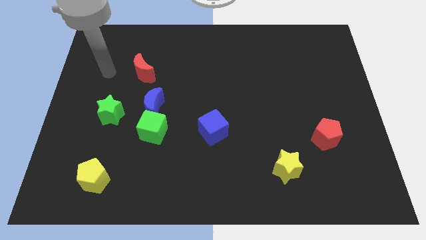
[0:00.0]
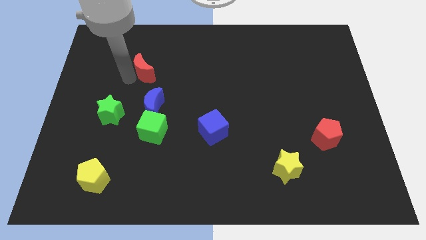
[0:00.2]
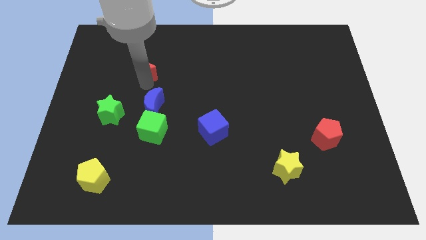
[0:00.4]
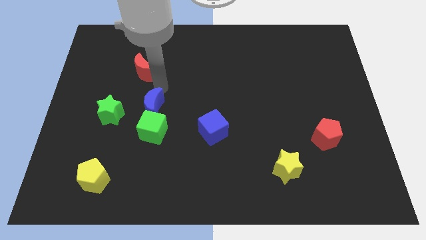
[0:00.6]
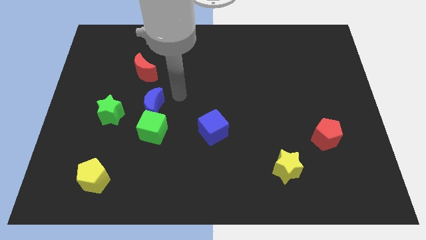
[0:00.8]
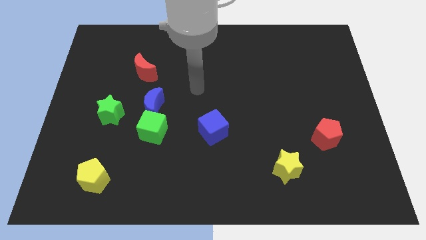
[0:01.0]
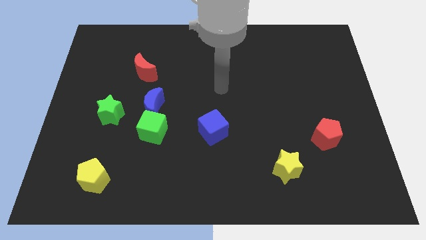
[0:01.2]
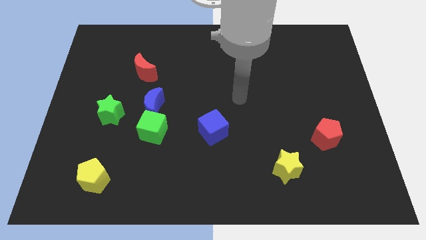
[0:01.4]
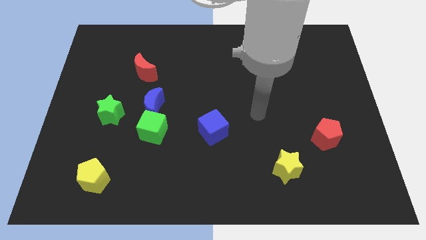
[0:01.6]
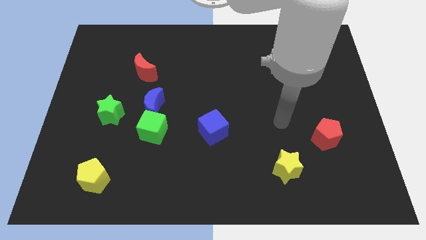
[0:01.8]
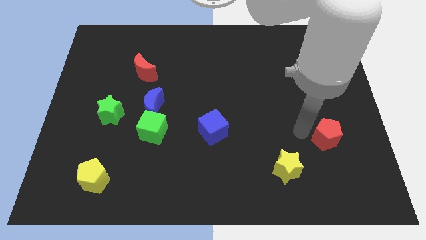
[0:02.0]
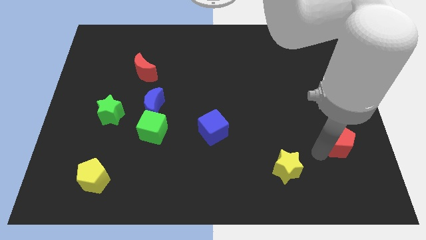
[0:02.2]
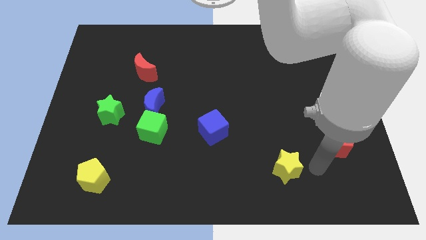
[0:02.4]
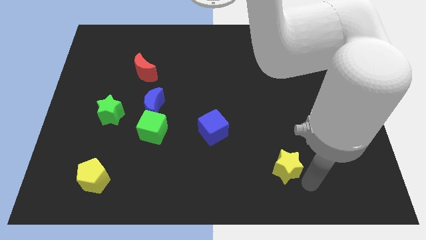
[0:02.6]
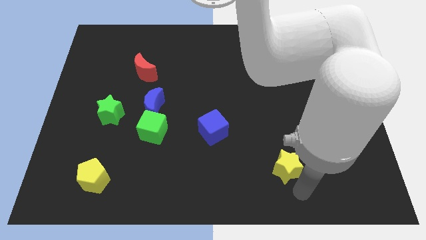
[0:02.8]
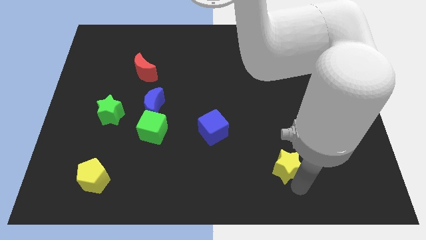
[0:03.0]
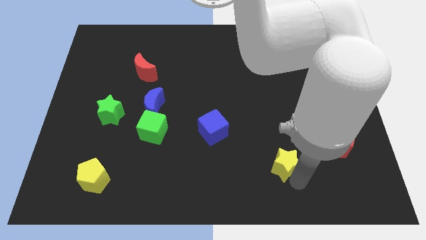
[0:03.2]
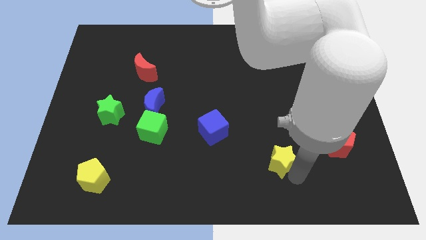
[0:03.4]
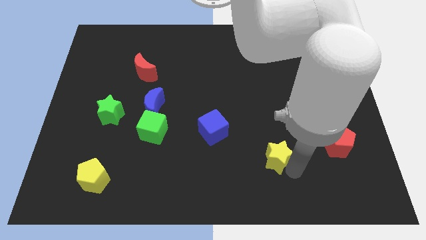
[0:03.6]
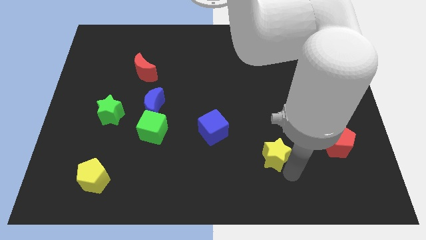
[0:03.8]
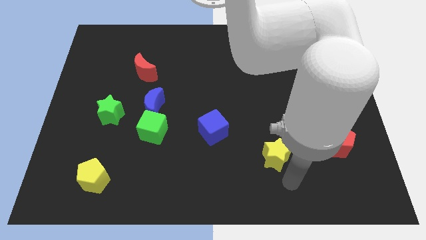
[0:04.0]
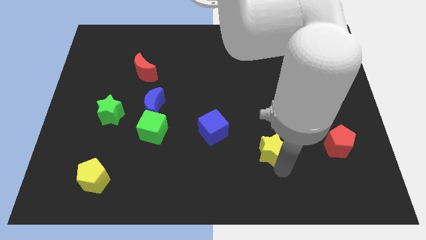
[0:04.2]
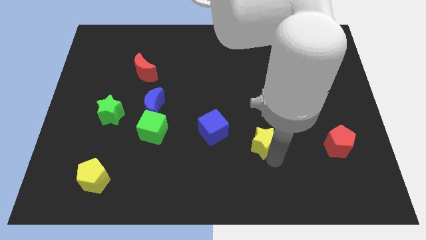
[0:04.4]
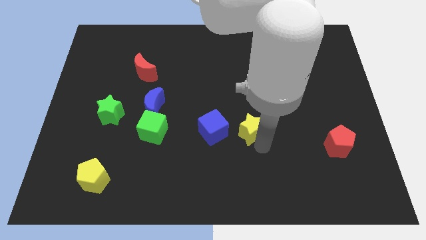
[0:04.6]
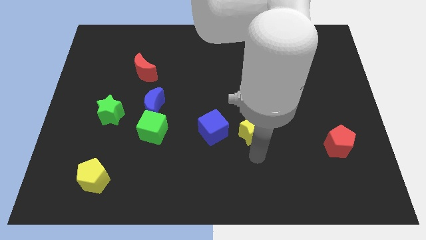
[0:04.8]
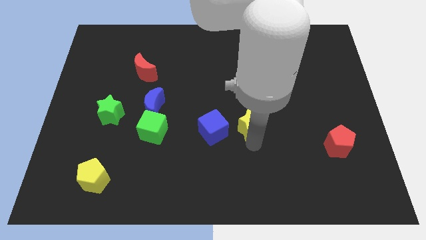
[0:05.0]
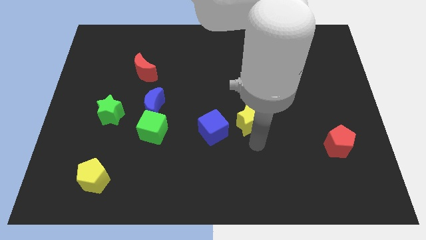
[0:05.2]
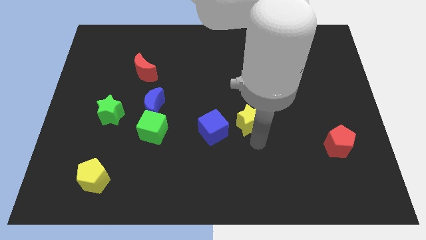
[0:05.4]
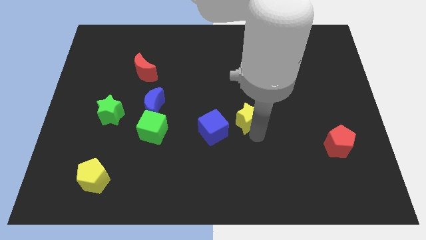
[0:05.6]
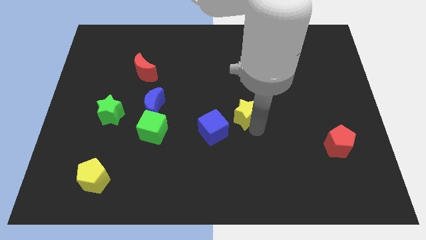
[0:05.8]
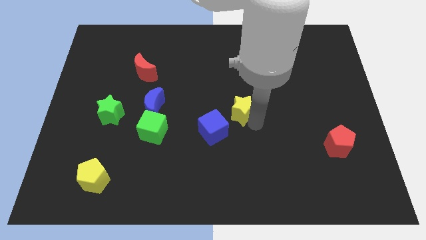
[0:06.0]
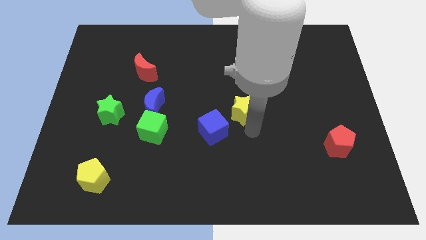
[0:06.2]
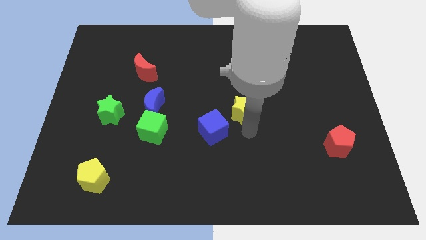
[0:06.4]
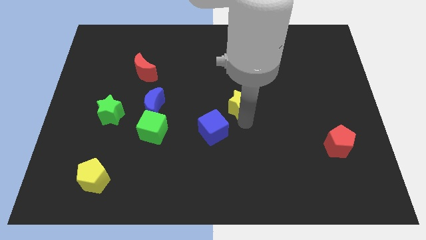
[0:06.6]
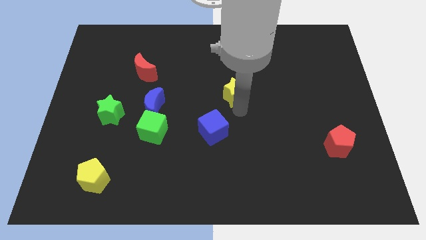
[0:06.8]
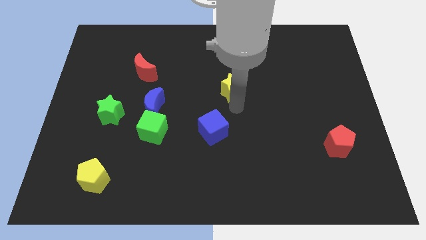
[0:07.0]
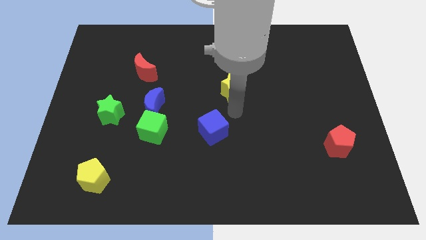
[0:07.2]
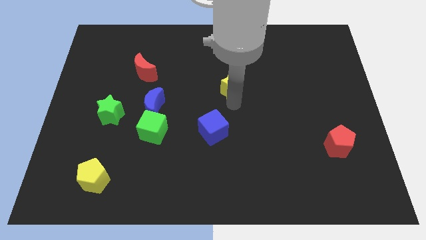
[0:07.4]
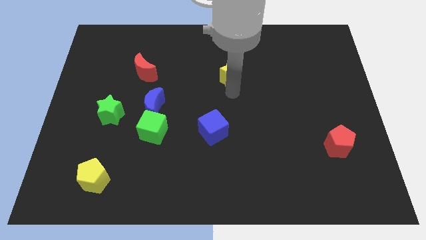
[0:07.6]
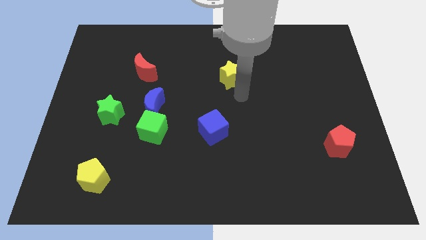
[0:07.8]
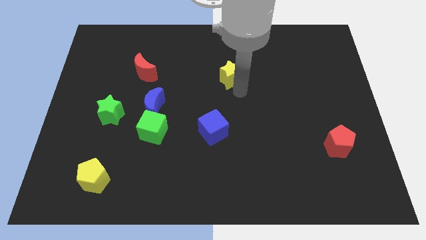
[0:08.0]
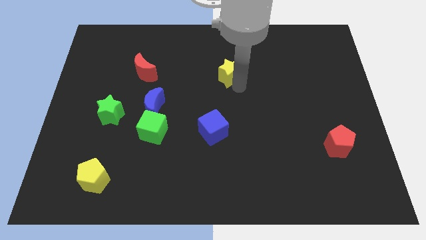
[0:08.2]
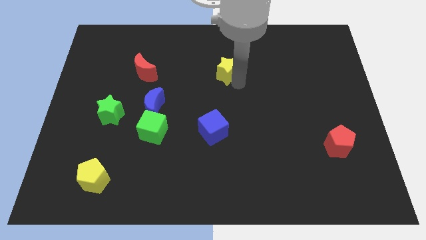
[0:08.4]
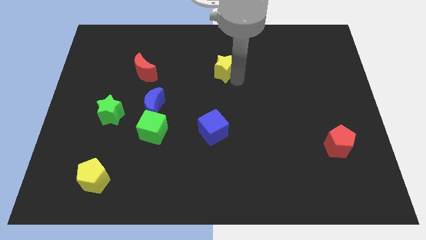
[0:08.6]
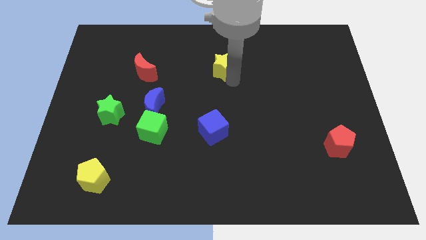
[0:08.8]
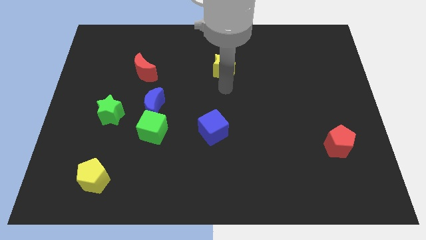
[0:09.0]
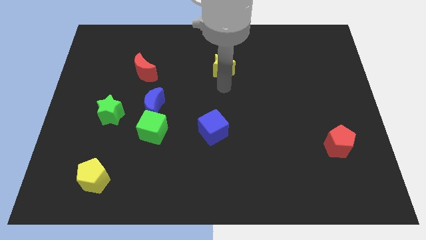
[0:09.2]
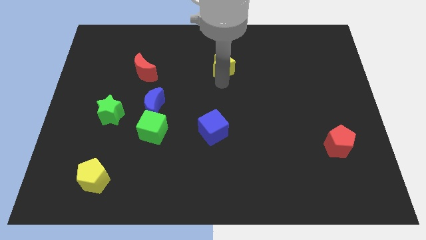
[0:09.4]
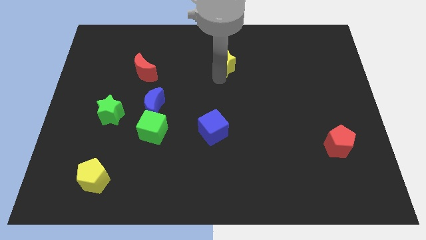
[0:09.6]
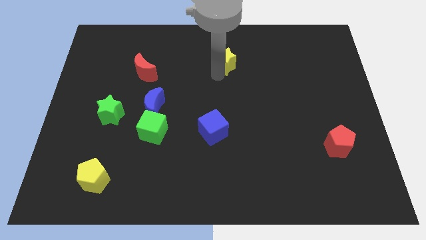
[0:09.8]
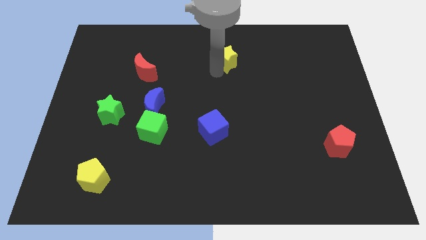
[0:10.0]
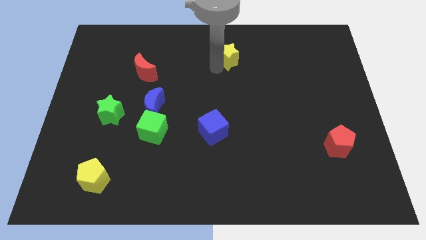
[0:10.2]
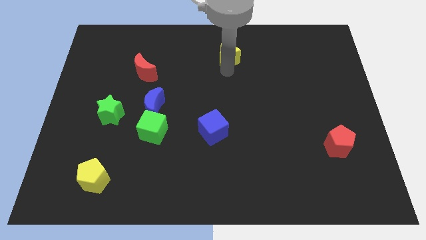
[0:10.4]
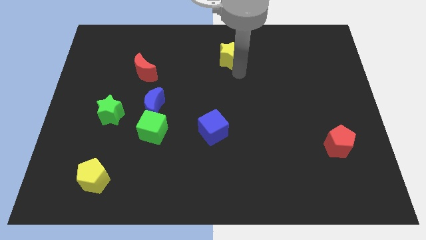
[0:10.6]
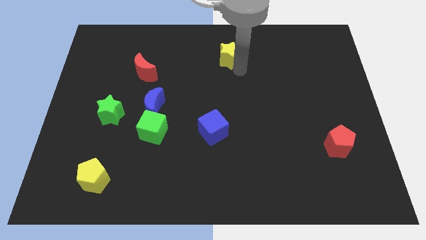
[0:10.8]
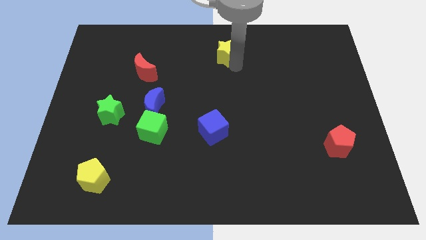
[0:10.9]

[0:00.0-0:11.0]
slide the yellow star to the top side

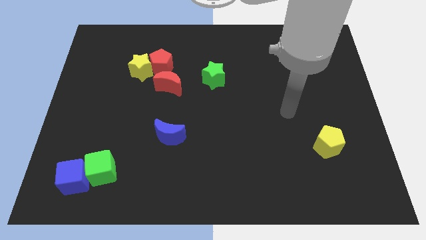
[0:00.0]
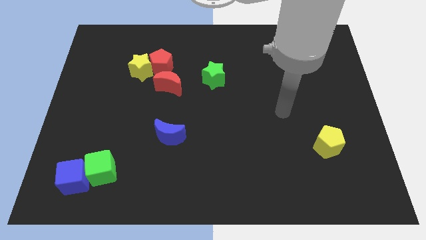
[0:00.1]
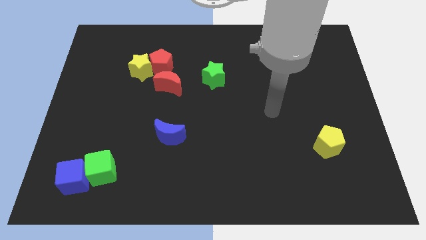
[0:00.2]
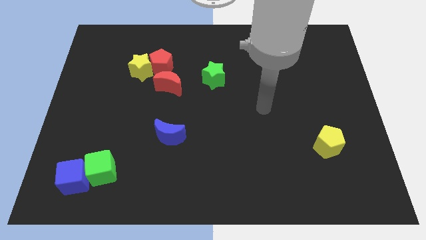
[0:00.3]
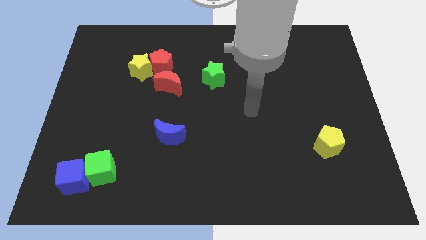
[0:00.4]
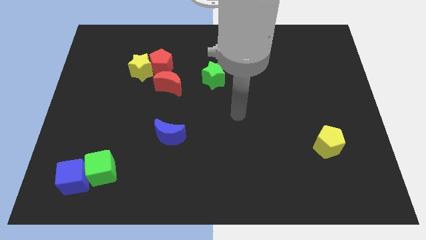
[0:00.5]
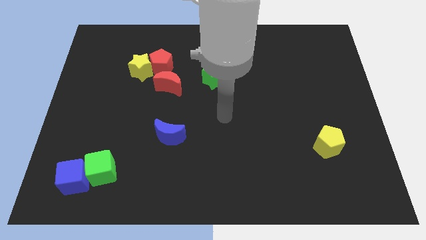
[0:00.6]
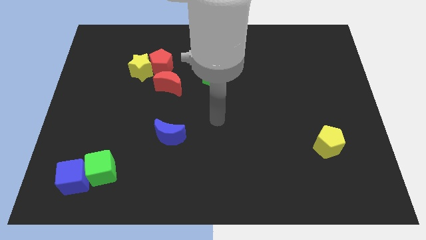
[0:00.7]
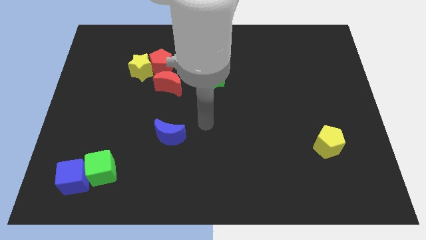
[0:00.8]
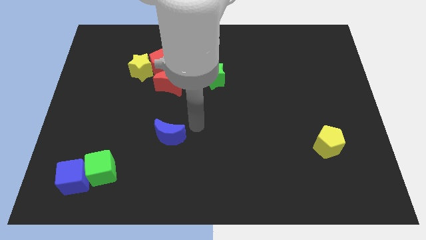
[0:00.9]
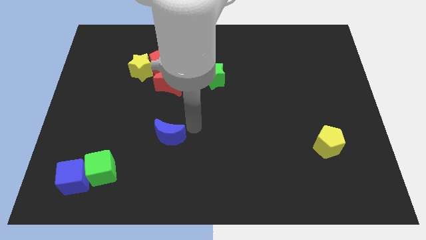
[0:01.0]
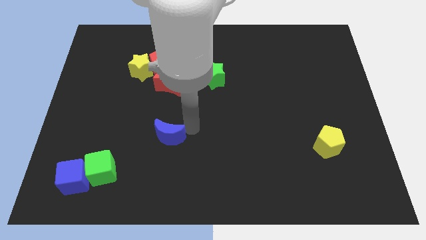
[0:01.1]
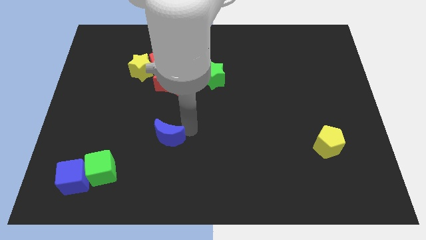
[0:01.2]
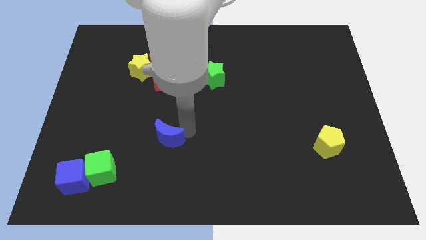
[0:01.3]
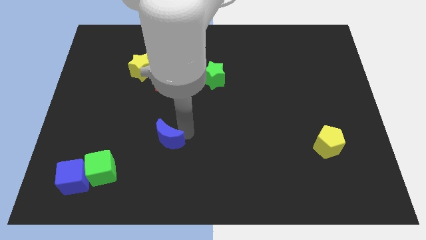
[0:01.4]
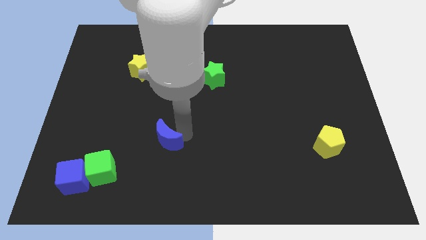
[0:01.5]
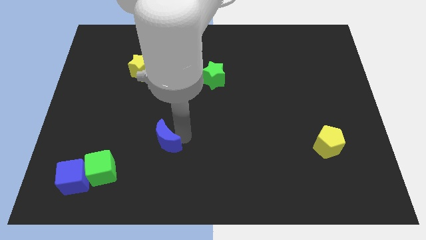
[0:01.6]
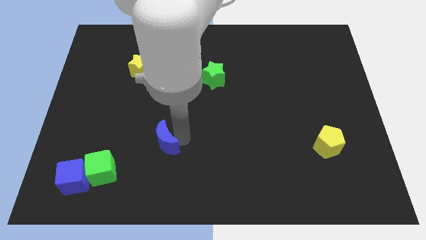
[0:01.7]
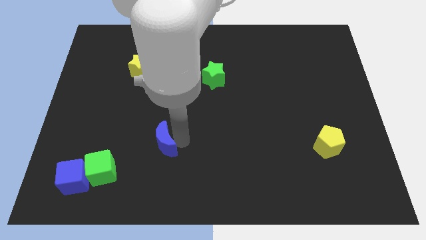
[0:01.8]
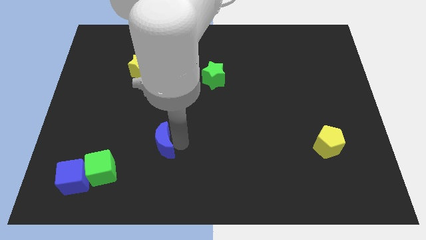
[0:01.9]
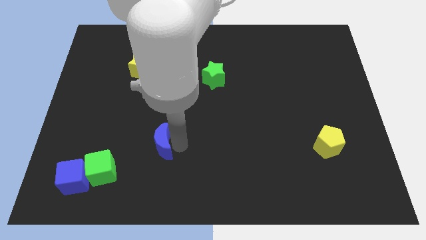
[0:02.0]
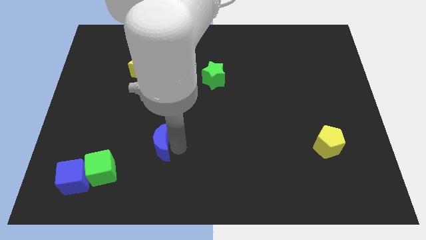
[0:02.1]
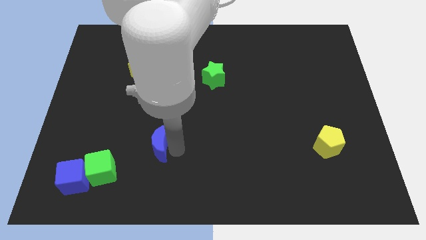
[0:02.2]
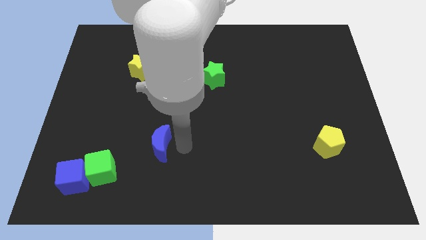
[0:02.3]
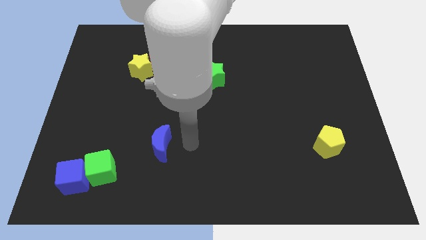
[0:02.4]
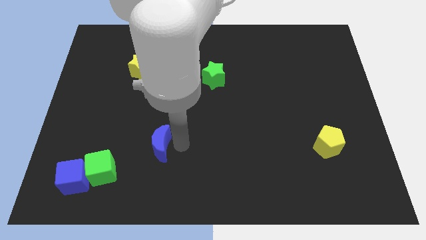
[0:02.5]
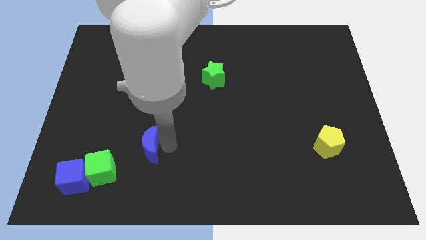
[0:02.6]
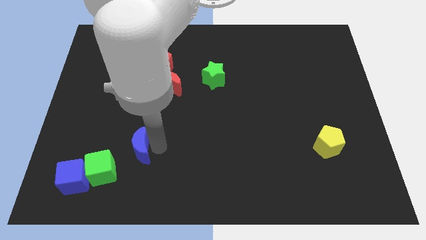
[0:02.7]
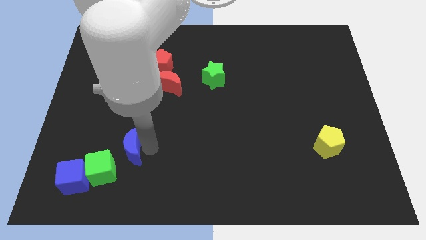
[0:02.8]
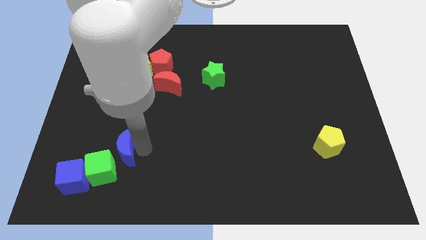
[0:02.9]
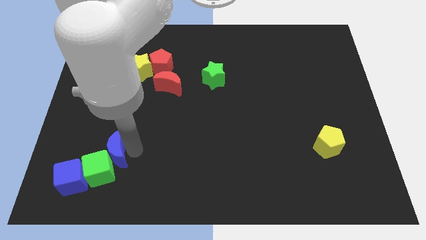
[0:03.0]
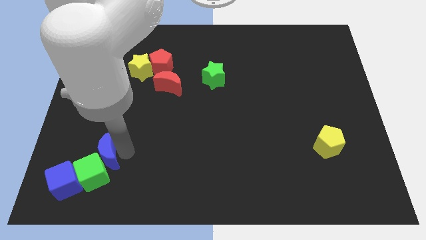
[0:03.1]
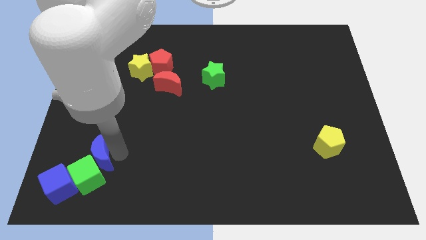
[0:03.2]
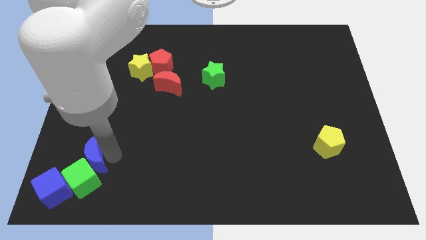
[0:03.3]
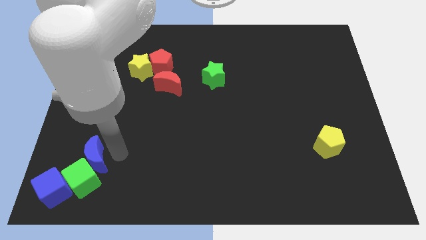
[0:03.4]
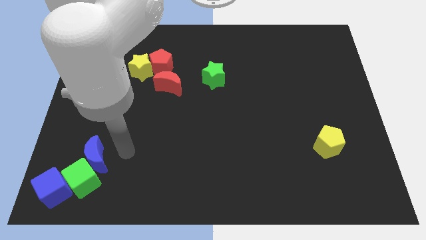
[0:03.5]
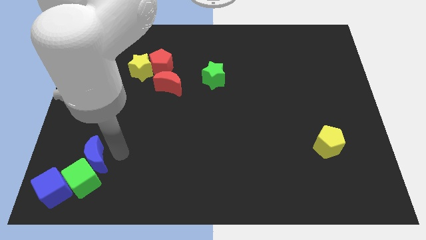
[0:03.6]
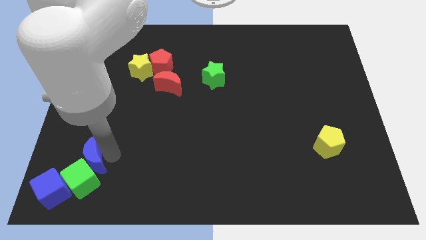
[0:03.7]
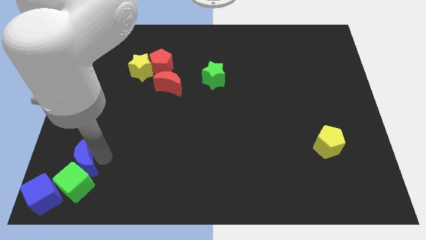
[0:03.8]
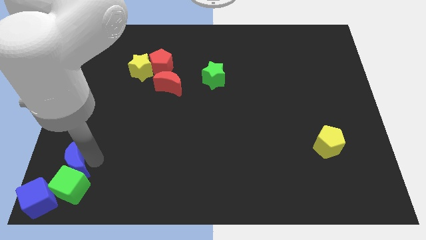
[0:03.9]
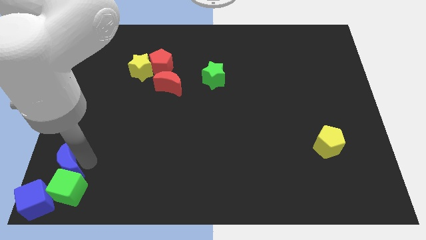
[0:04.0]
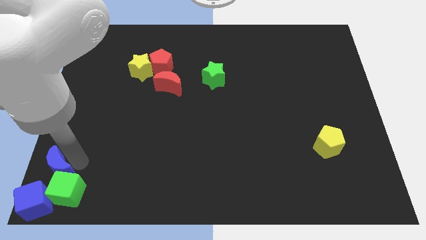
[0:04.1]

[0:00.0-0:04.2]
move the blue moon to the bottom left
